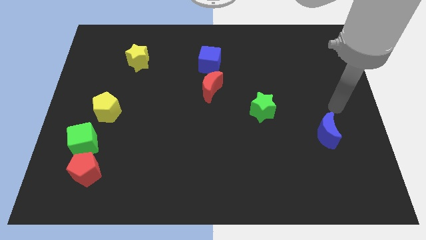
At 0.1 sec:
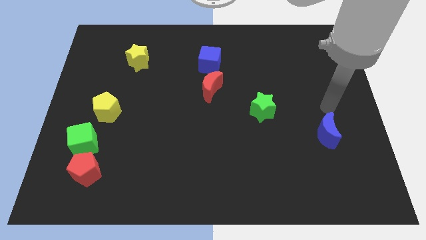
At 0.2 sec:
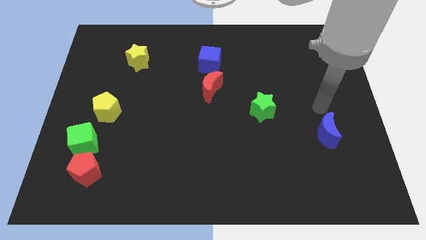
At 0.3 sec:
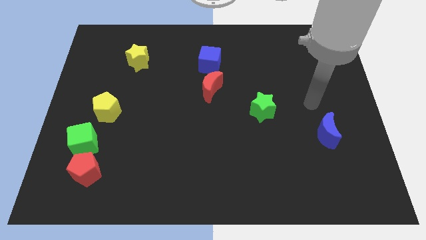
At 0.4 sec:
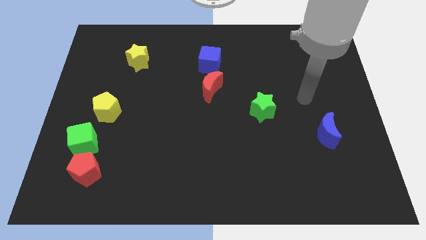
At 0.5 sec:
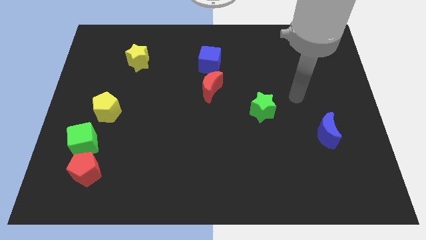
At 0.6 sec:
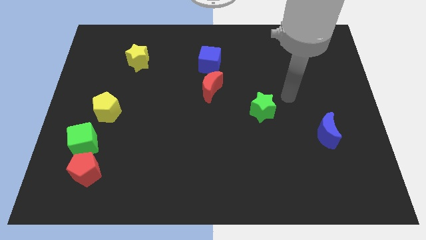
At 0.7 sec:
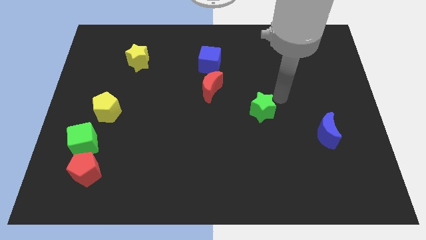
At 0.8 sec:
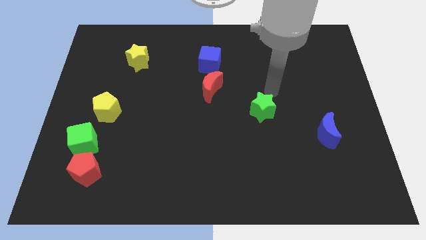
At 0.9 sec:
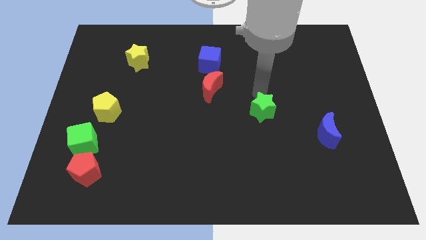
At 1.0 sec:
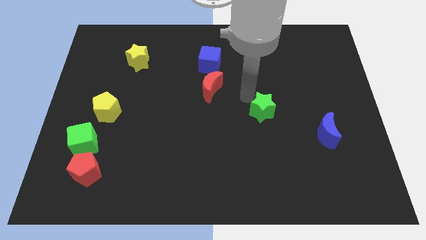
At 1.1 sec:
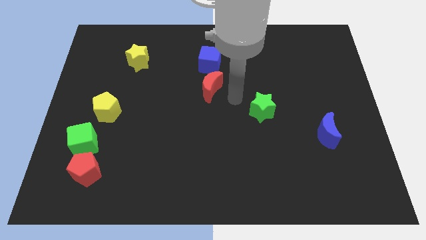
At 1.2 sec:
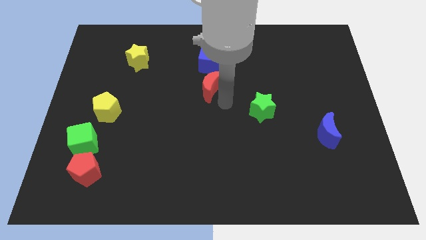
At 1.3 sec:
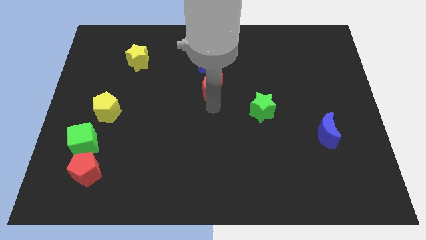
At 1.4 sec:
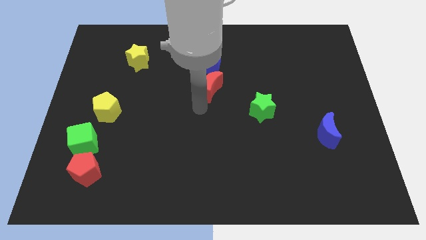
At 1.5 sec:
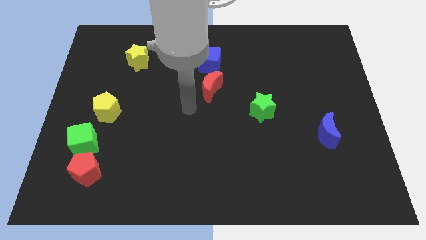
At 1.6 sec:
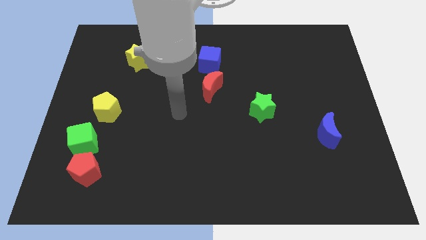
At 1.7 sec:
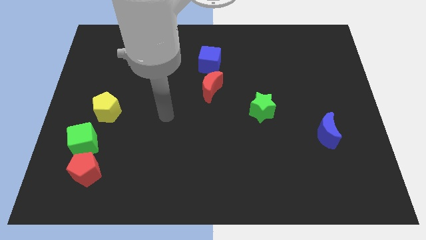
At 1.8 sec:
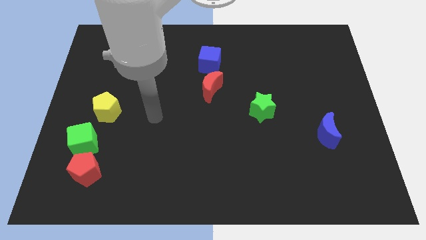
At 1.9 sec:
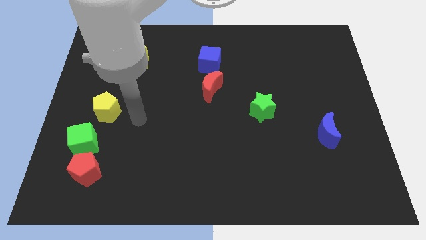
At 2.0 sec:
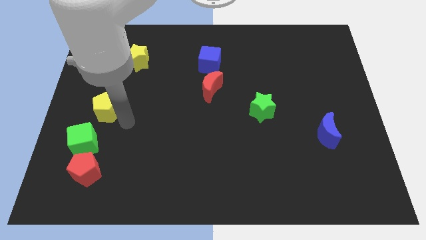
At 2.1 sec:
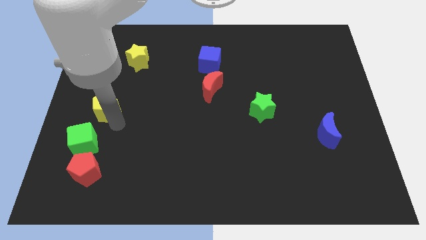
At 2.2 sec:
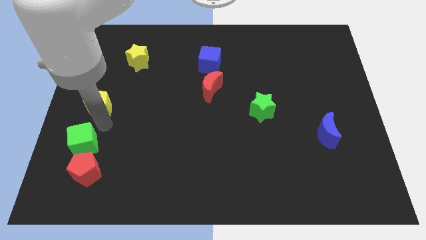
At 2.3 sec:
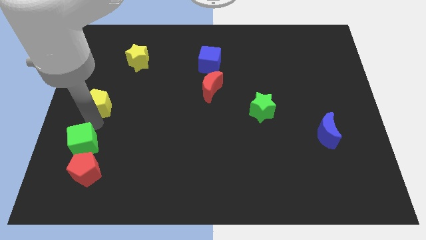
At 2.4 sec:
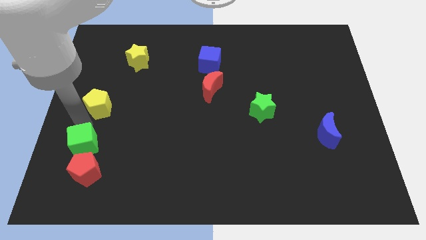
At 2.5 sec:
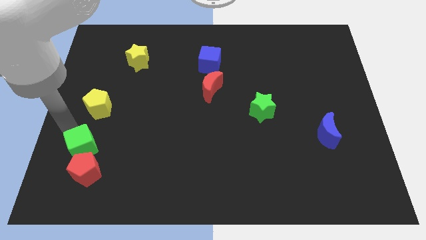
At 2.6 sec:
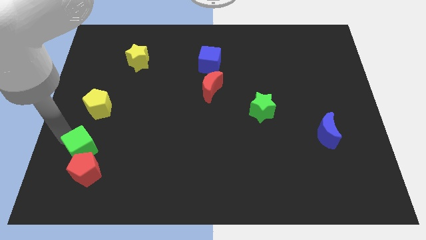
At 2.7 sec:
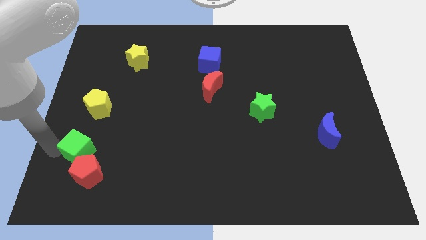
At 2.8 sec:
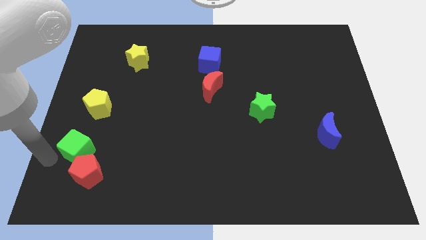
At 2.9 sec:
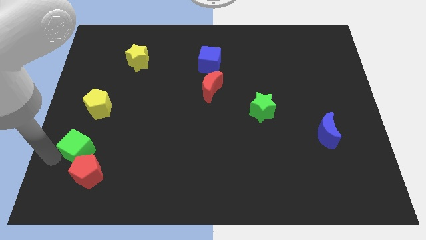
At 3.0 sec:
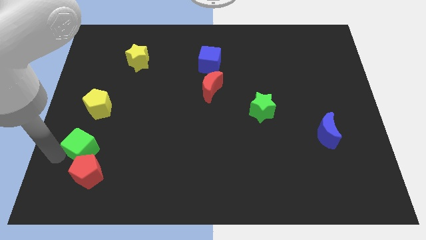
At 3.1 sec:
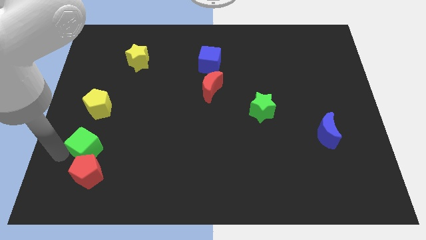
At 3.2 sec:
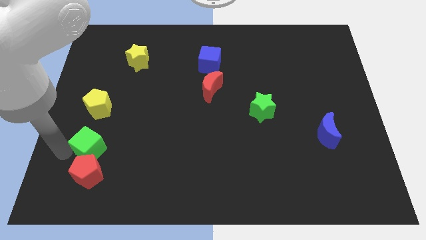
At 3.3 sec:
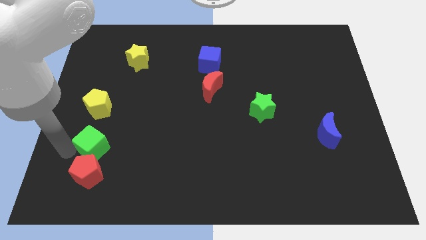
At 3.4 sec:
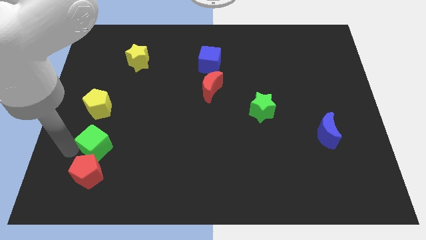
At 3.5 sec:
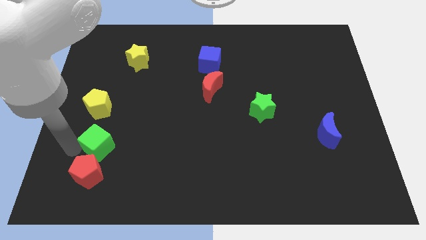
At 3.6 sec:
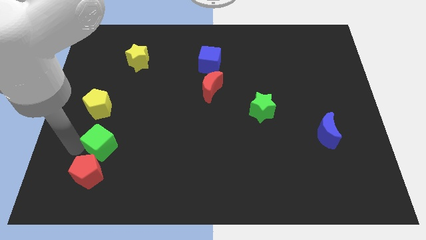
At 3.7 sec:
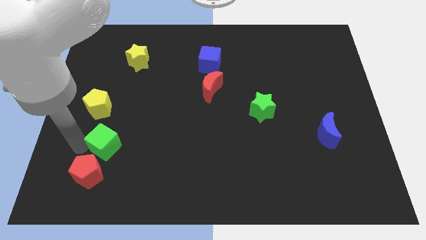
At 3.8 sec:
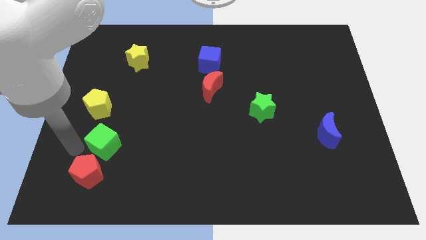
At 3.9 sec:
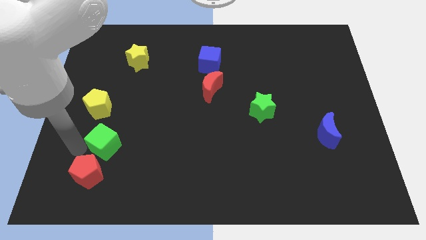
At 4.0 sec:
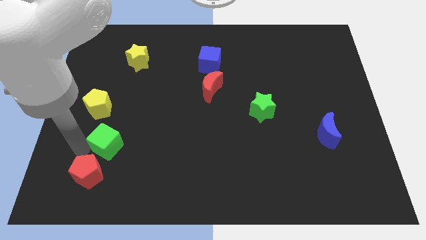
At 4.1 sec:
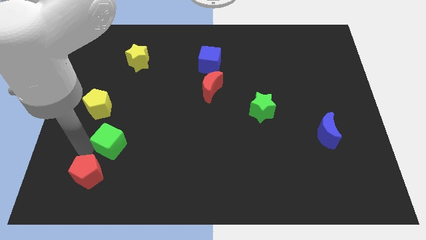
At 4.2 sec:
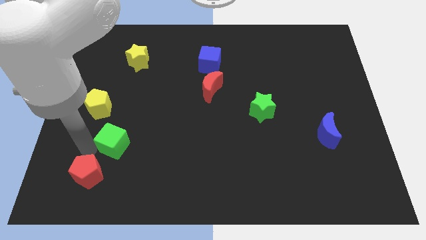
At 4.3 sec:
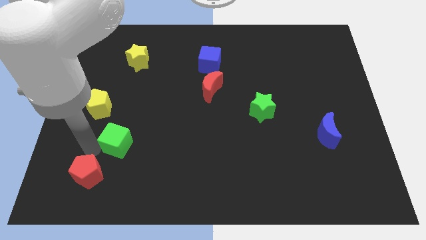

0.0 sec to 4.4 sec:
slide the green cube to the right a bit

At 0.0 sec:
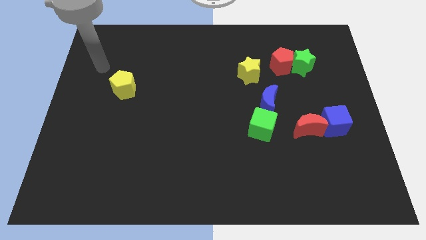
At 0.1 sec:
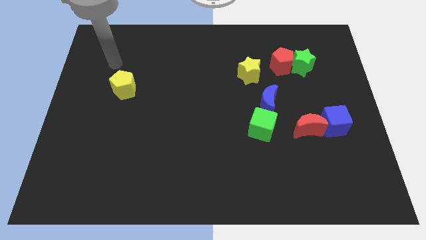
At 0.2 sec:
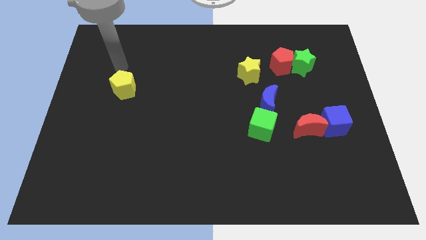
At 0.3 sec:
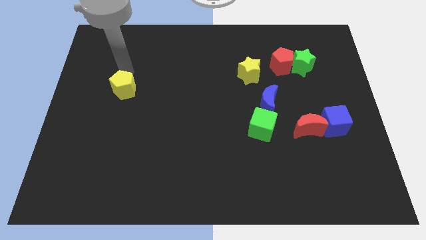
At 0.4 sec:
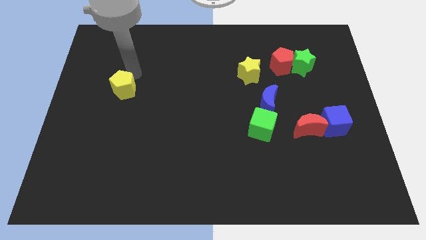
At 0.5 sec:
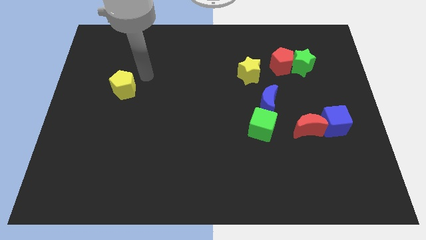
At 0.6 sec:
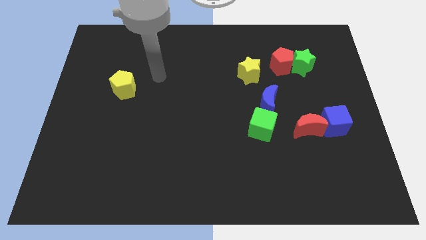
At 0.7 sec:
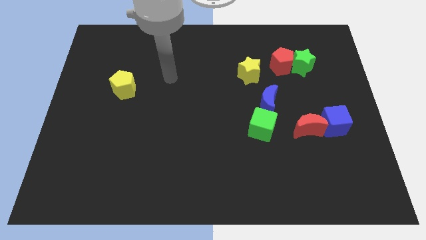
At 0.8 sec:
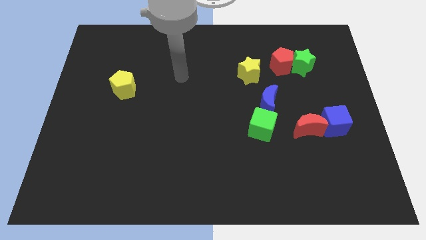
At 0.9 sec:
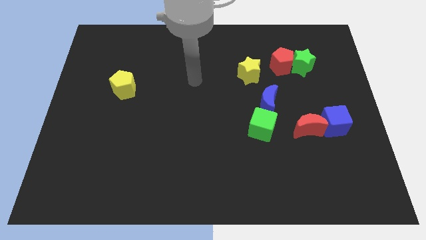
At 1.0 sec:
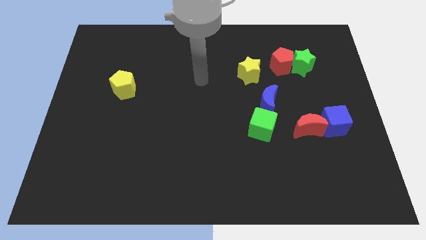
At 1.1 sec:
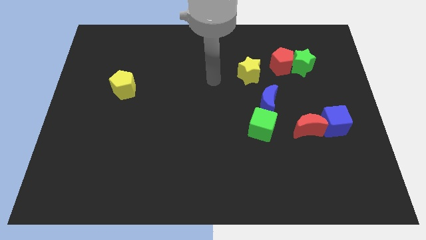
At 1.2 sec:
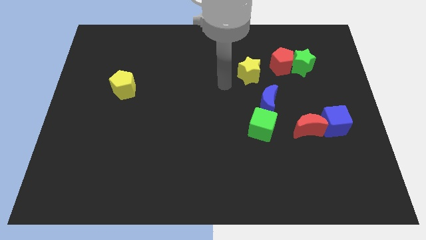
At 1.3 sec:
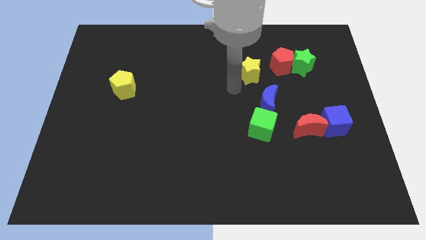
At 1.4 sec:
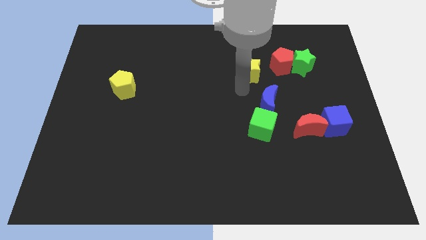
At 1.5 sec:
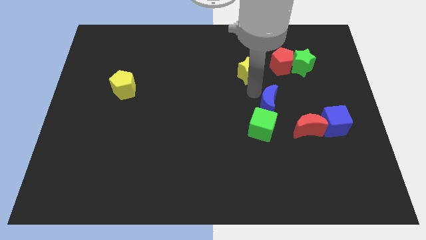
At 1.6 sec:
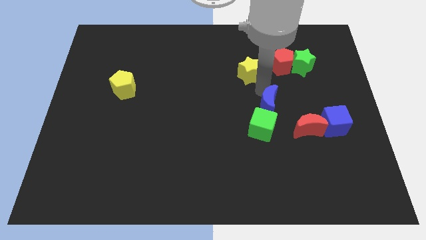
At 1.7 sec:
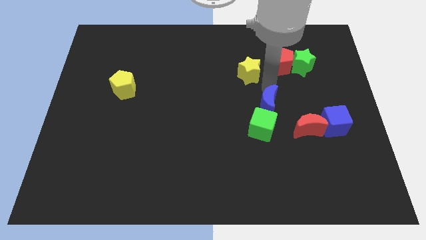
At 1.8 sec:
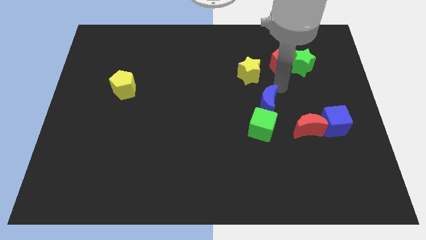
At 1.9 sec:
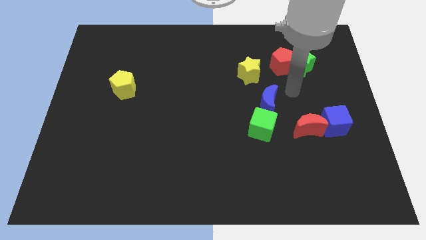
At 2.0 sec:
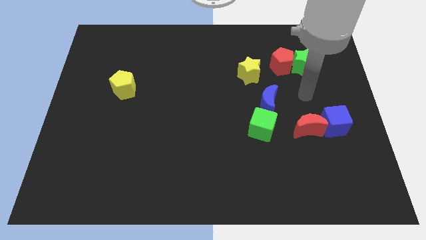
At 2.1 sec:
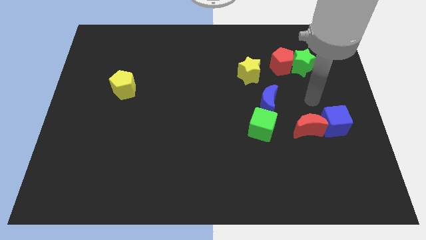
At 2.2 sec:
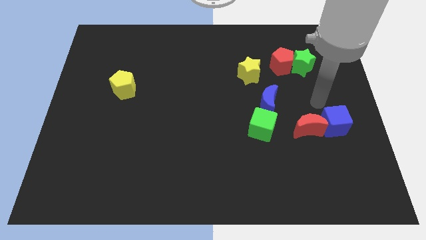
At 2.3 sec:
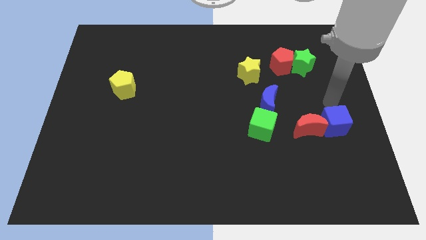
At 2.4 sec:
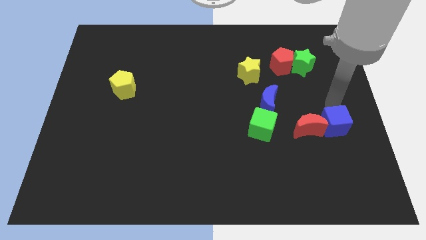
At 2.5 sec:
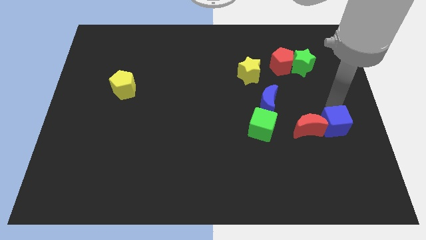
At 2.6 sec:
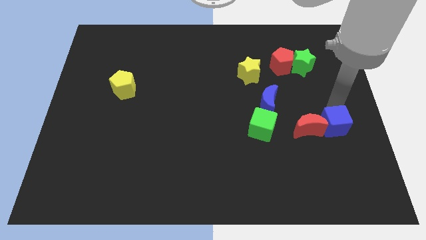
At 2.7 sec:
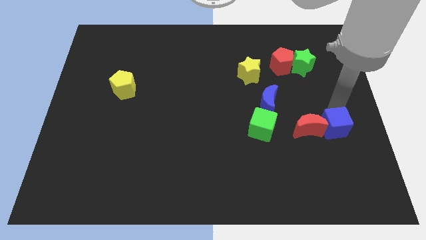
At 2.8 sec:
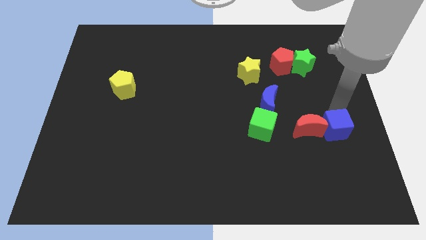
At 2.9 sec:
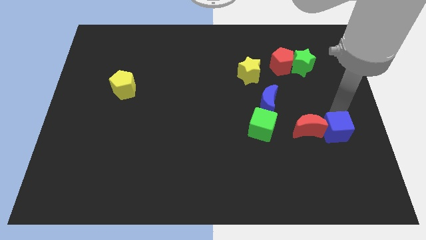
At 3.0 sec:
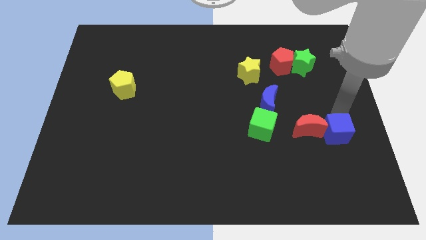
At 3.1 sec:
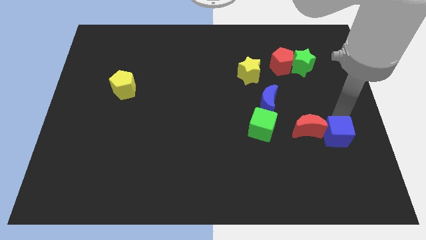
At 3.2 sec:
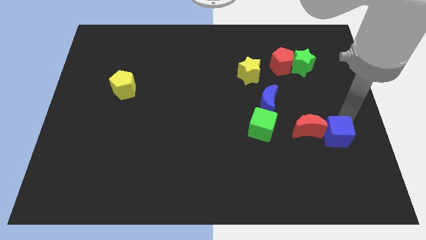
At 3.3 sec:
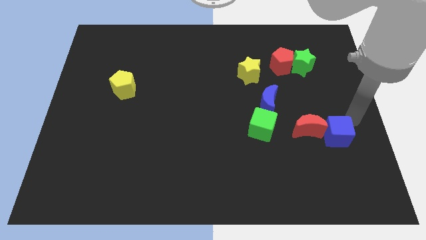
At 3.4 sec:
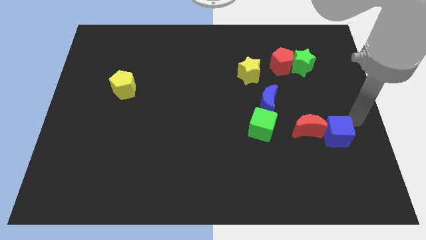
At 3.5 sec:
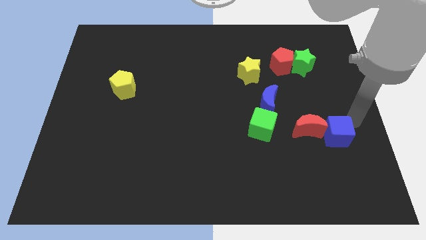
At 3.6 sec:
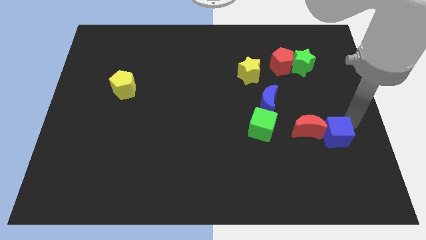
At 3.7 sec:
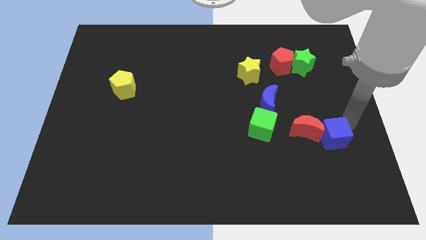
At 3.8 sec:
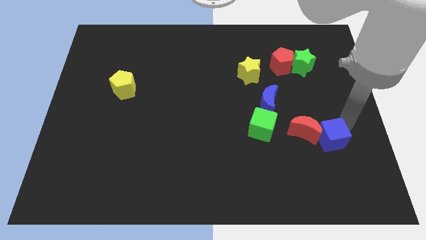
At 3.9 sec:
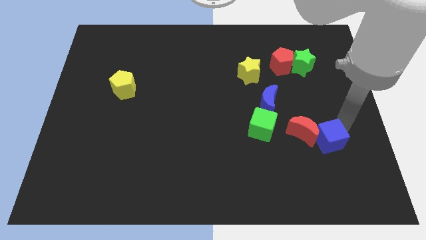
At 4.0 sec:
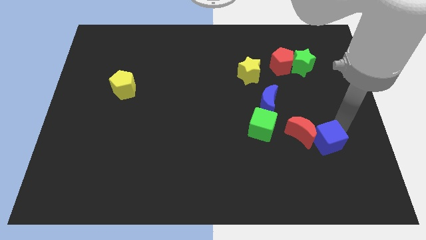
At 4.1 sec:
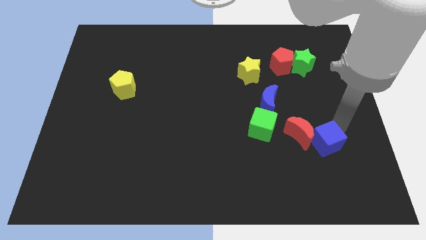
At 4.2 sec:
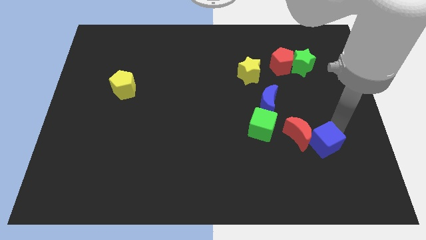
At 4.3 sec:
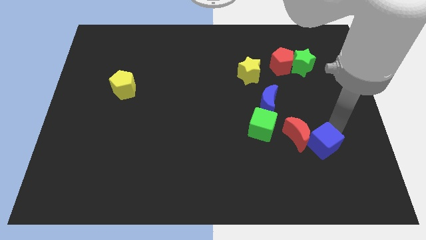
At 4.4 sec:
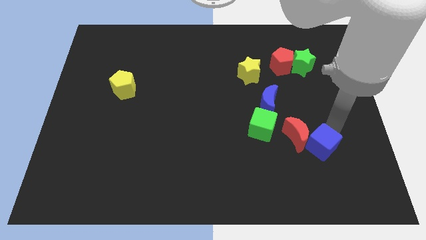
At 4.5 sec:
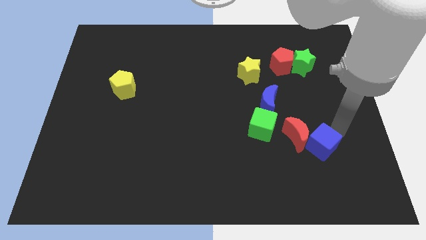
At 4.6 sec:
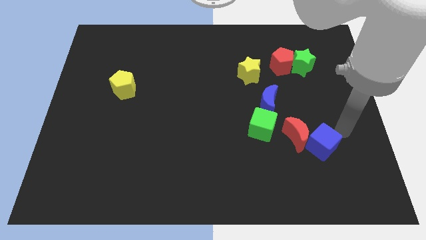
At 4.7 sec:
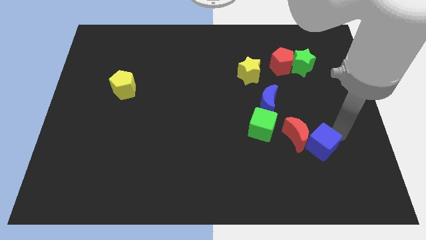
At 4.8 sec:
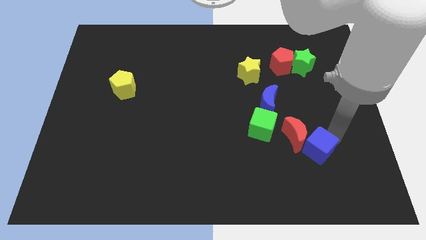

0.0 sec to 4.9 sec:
move the blue cube diagonally downwards and to the left a little bit
